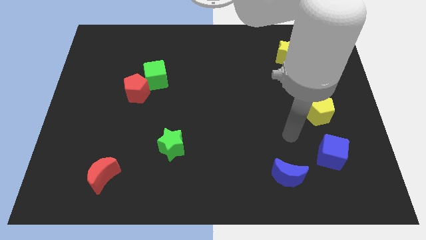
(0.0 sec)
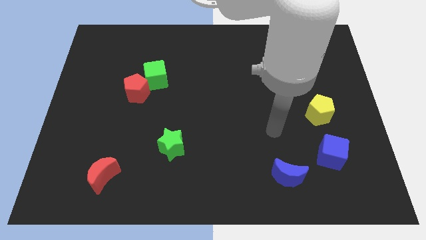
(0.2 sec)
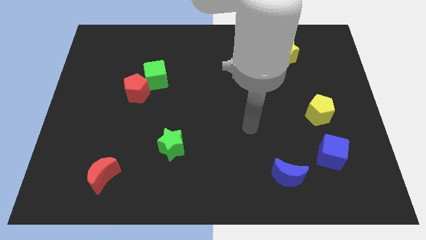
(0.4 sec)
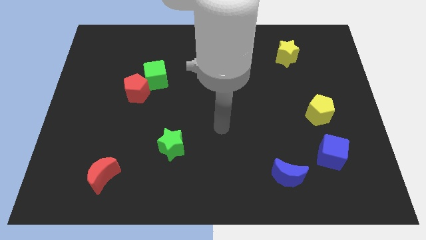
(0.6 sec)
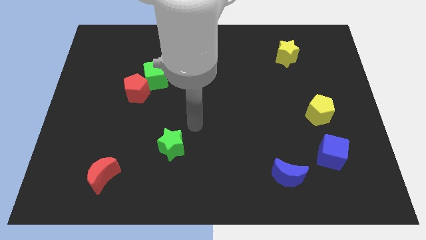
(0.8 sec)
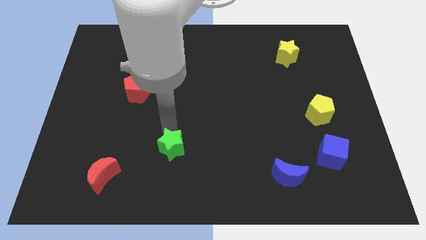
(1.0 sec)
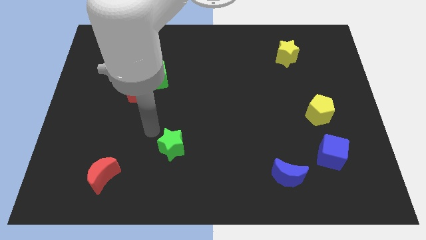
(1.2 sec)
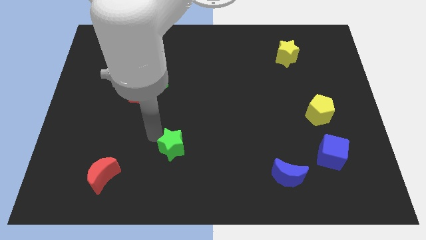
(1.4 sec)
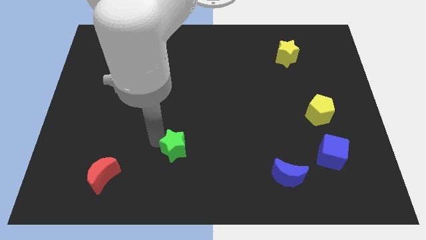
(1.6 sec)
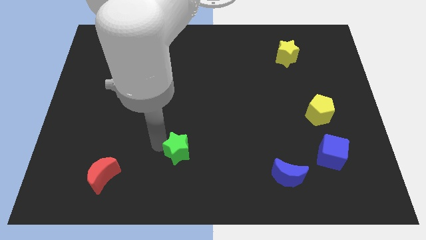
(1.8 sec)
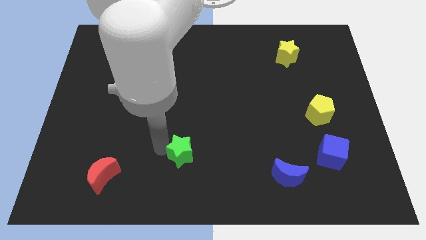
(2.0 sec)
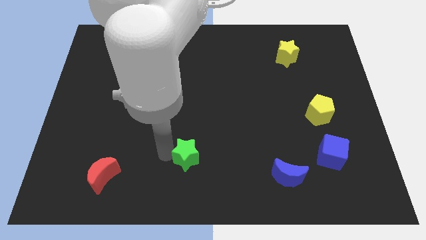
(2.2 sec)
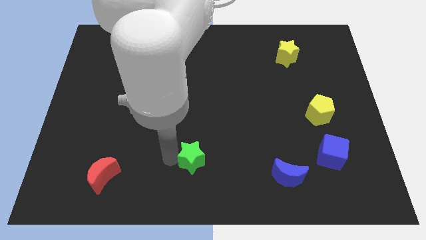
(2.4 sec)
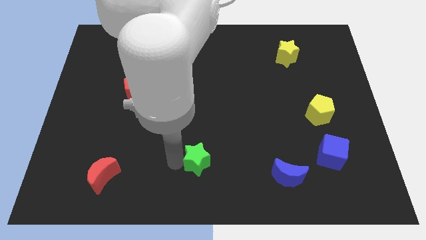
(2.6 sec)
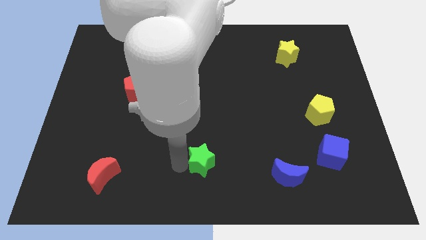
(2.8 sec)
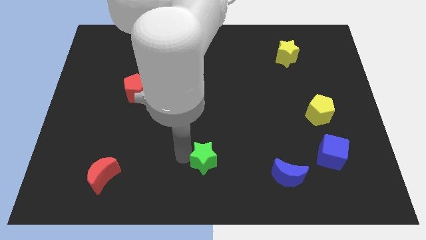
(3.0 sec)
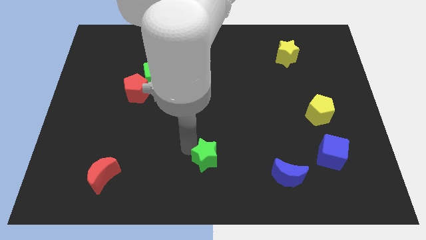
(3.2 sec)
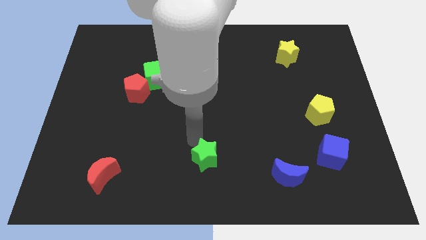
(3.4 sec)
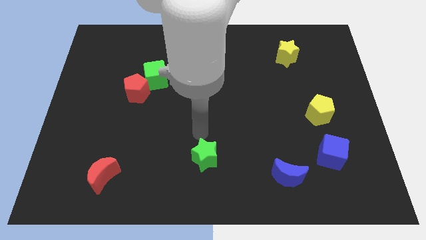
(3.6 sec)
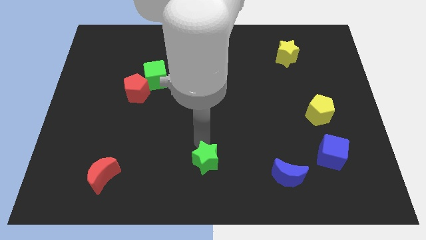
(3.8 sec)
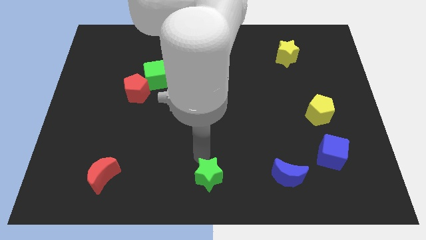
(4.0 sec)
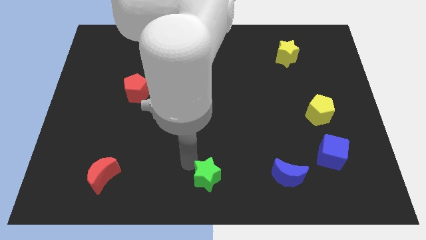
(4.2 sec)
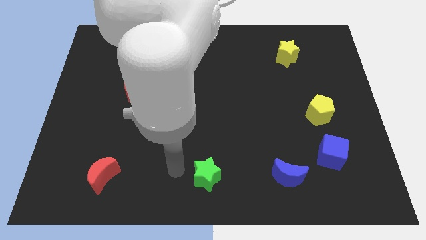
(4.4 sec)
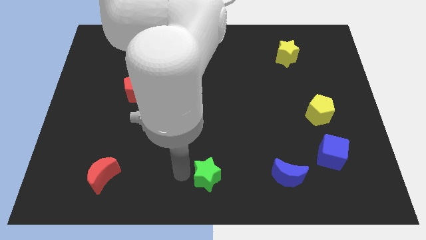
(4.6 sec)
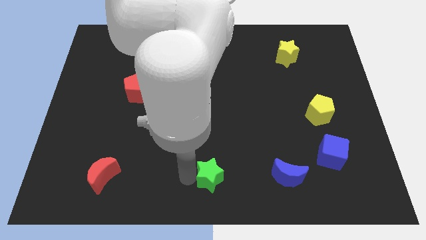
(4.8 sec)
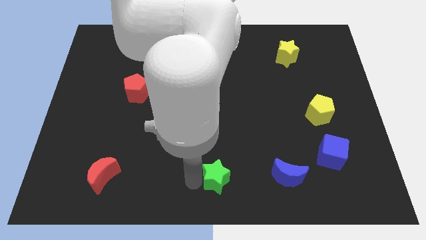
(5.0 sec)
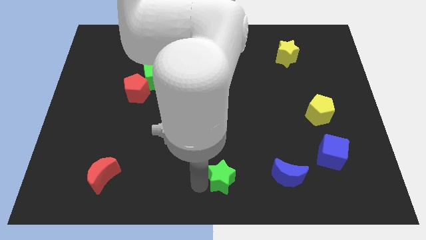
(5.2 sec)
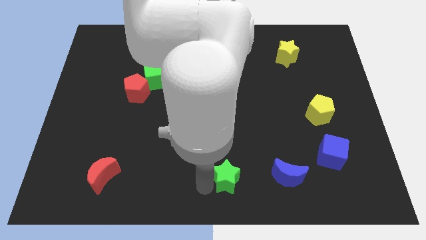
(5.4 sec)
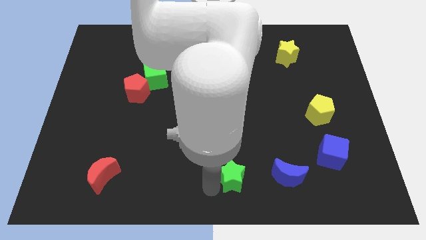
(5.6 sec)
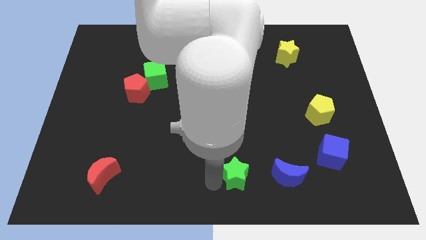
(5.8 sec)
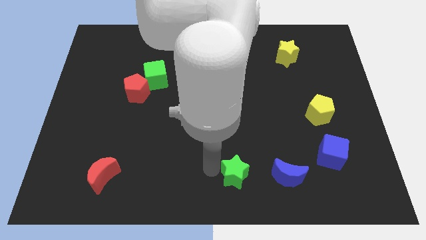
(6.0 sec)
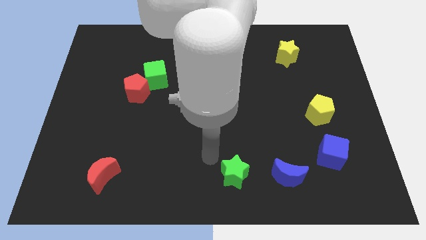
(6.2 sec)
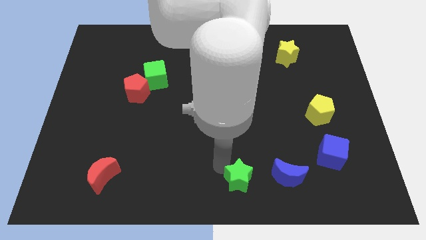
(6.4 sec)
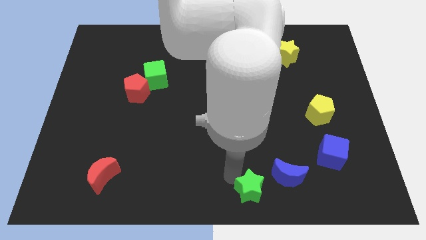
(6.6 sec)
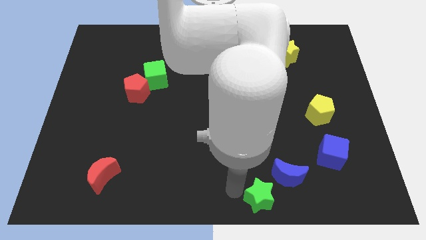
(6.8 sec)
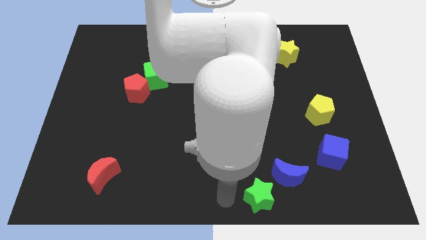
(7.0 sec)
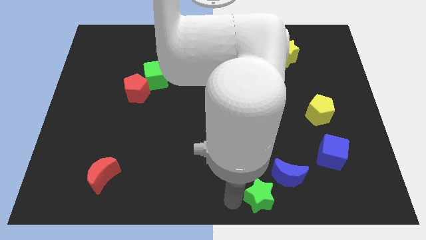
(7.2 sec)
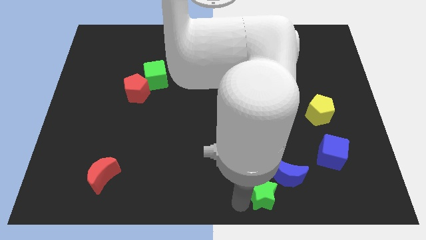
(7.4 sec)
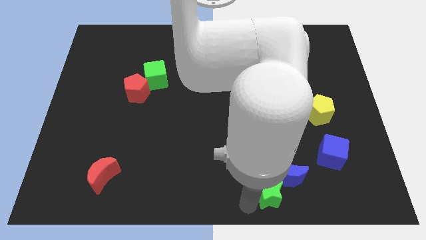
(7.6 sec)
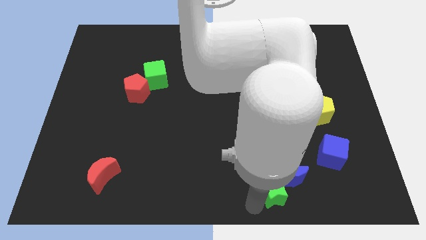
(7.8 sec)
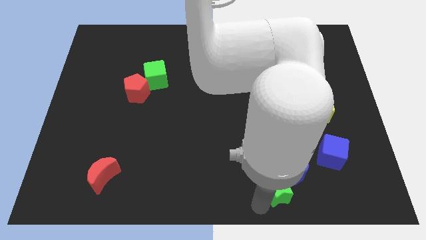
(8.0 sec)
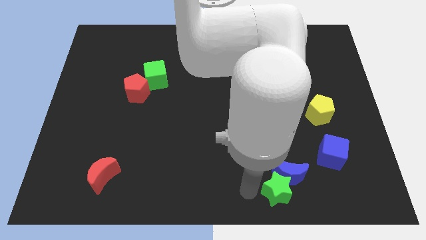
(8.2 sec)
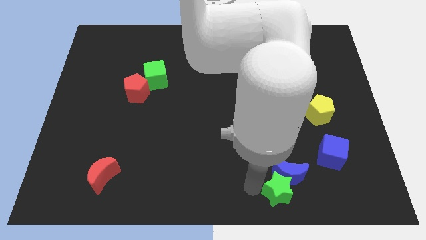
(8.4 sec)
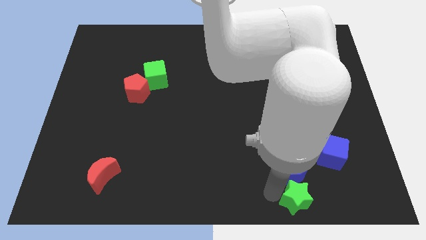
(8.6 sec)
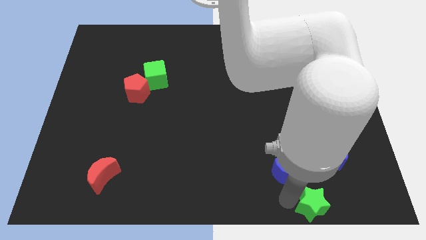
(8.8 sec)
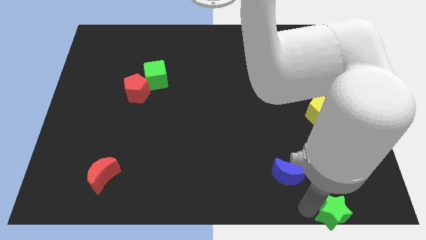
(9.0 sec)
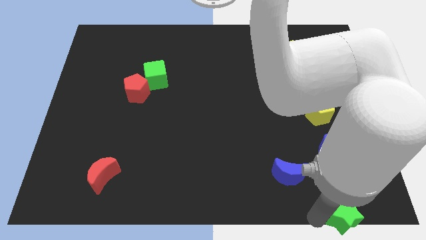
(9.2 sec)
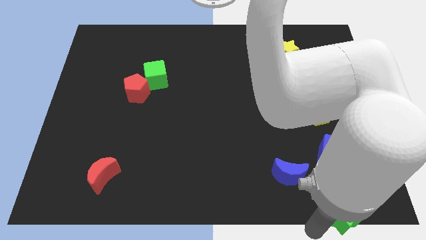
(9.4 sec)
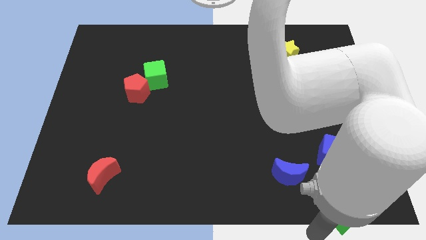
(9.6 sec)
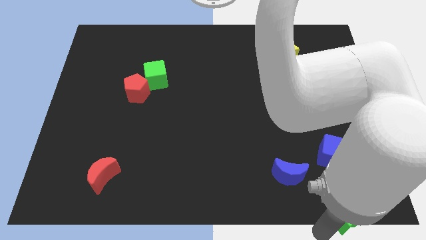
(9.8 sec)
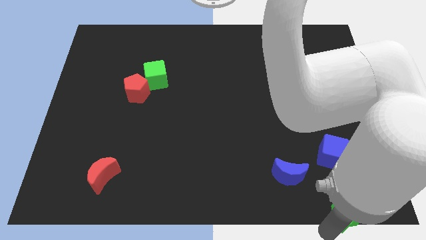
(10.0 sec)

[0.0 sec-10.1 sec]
move the green star to the bottom right of the board

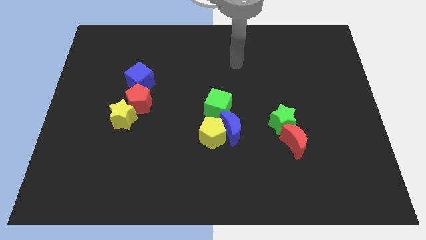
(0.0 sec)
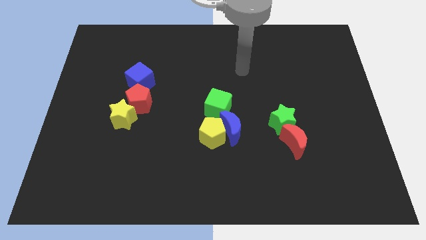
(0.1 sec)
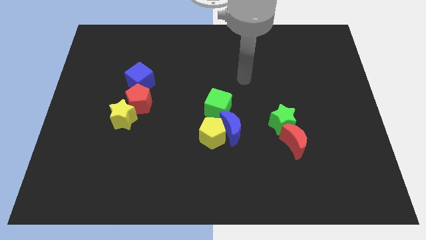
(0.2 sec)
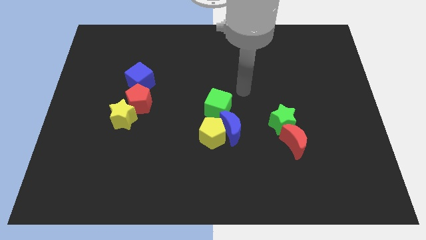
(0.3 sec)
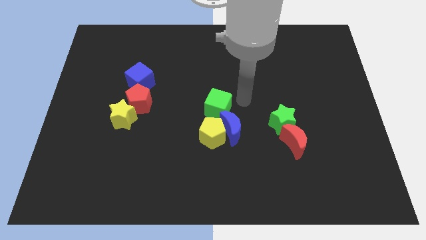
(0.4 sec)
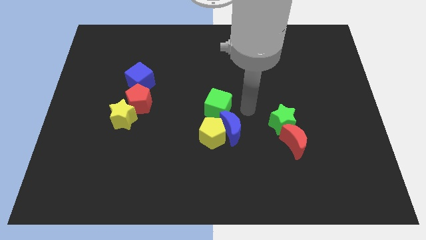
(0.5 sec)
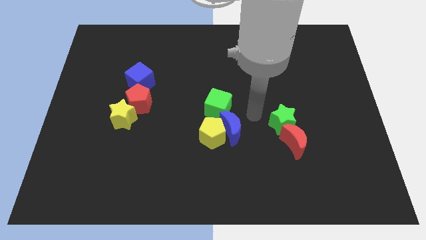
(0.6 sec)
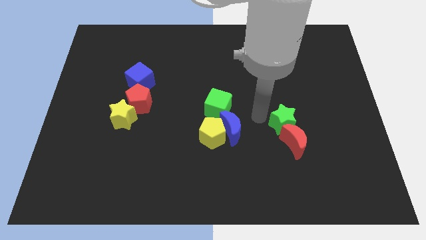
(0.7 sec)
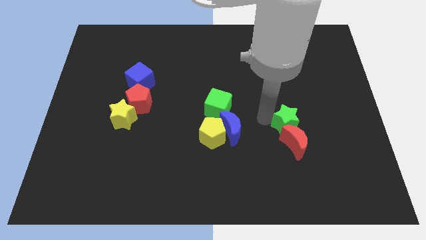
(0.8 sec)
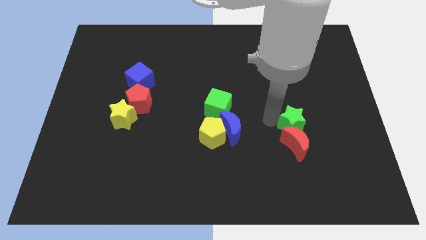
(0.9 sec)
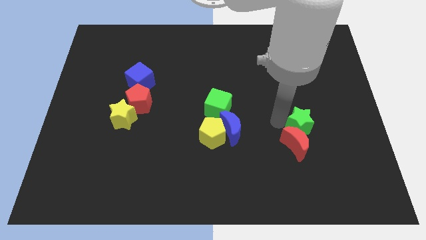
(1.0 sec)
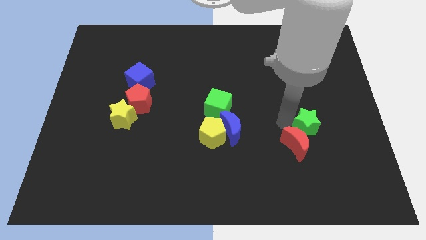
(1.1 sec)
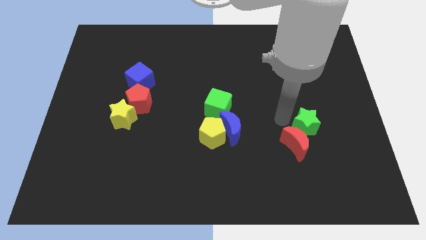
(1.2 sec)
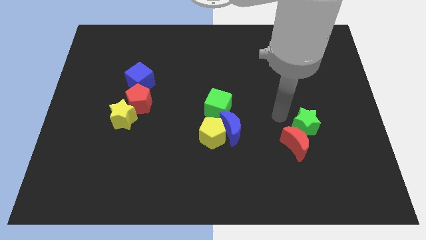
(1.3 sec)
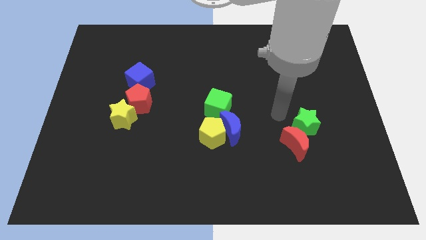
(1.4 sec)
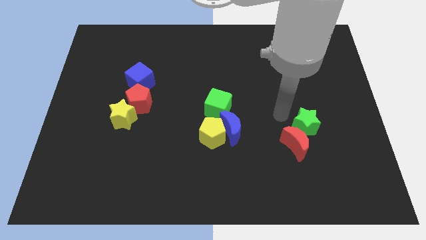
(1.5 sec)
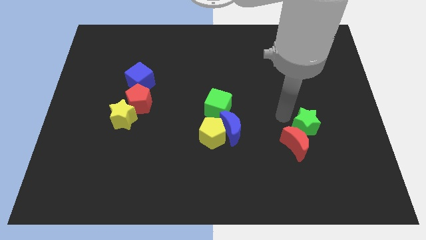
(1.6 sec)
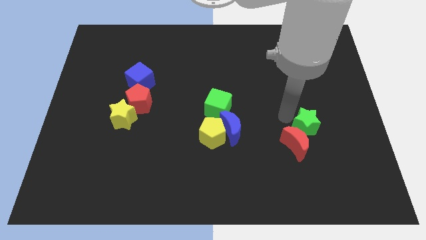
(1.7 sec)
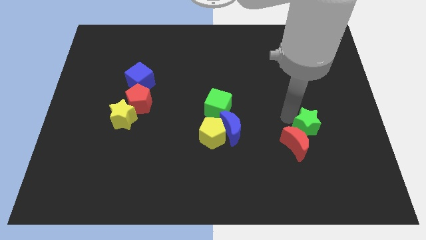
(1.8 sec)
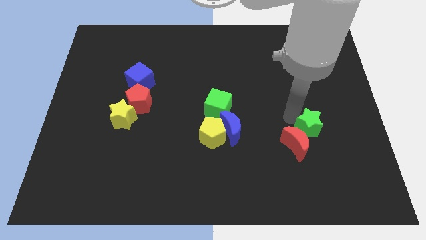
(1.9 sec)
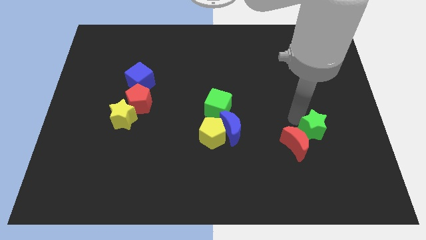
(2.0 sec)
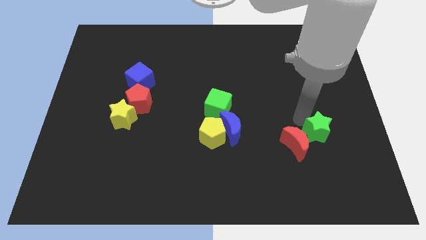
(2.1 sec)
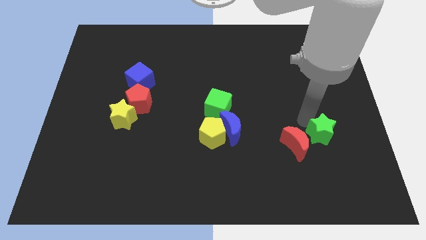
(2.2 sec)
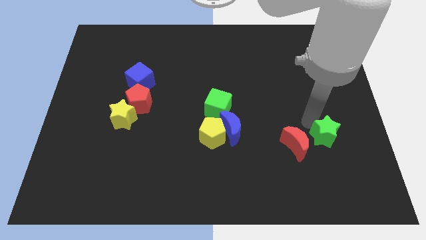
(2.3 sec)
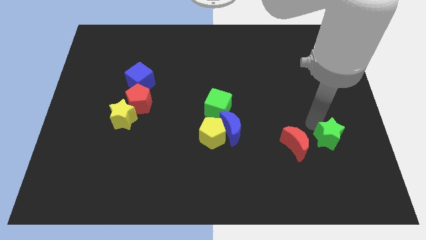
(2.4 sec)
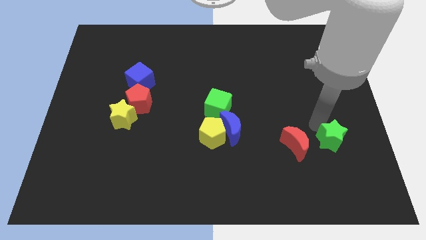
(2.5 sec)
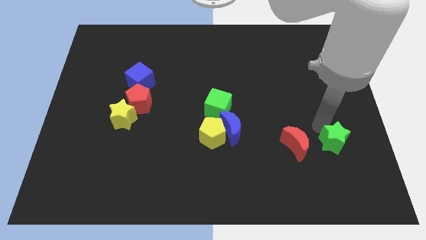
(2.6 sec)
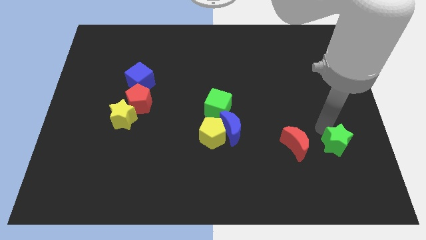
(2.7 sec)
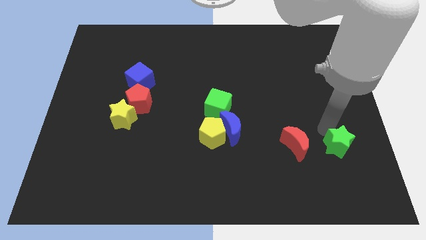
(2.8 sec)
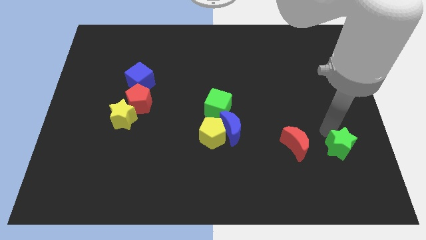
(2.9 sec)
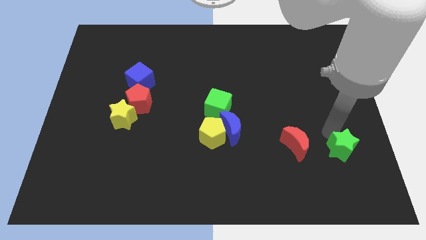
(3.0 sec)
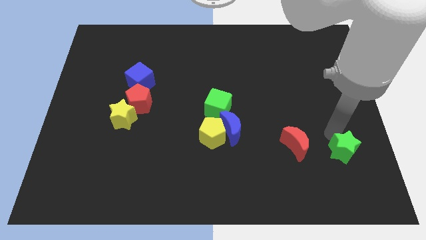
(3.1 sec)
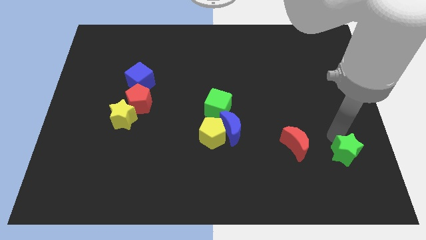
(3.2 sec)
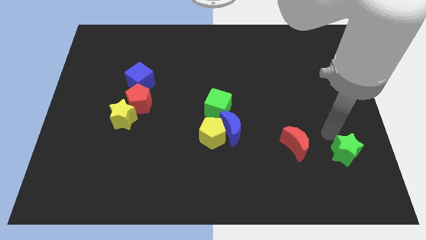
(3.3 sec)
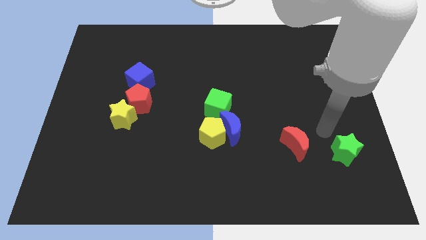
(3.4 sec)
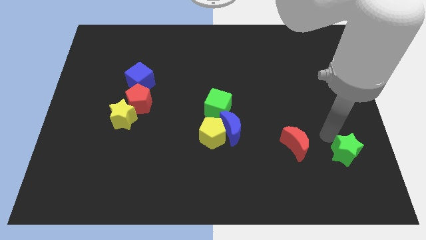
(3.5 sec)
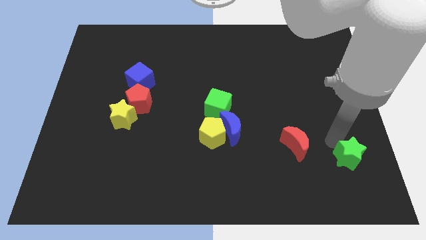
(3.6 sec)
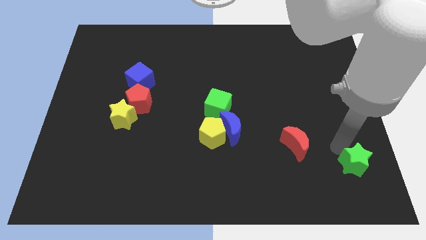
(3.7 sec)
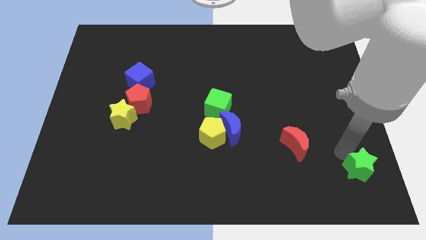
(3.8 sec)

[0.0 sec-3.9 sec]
put the green star to the bottom right of the board
